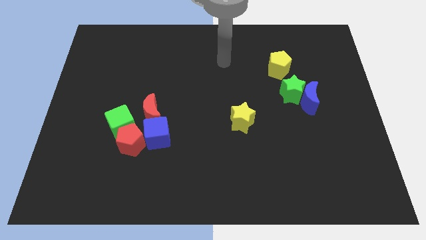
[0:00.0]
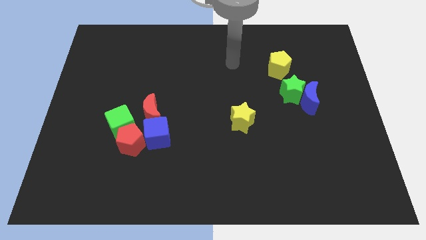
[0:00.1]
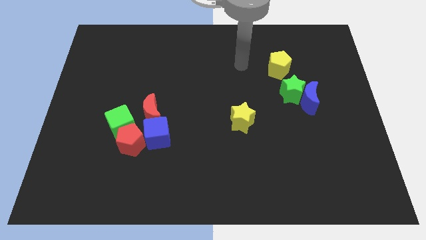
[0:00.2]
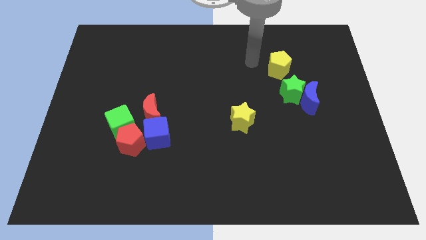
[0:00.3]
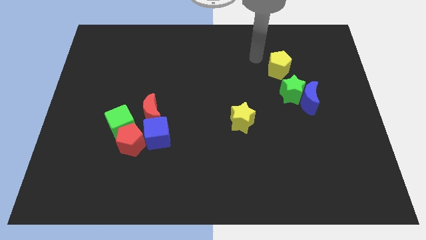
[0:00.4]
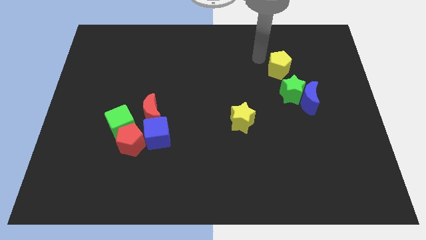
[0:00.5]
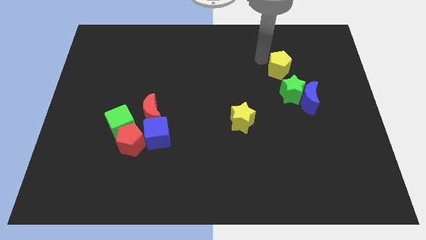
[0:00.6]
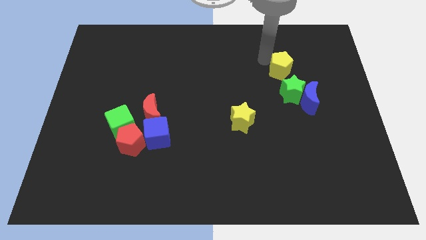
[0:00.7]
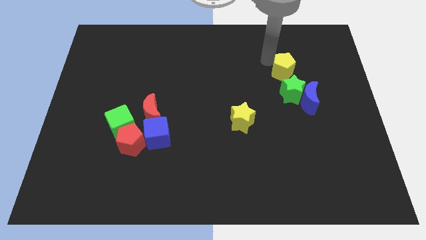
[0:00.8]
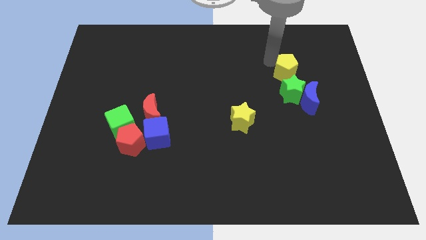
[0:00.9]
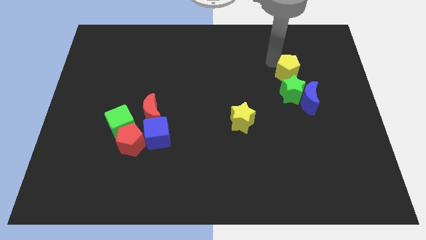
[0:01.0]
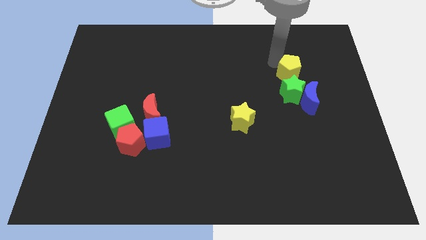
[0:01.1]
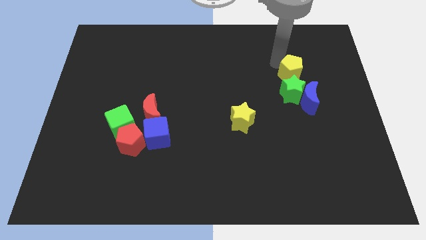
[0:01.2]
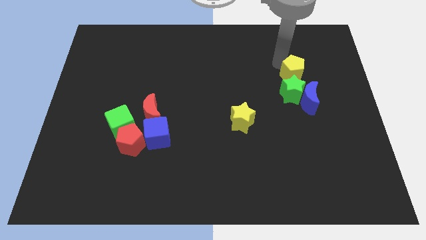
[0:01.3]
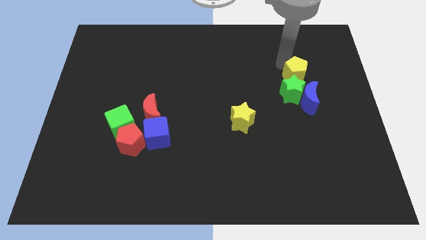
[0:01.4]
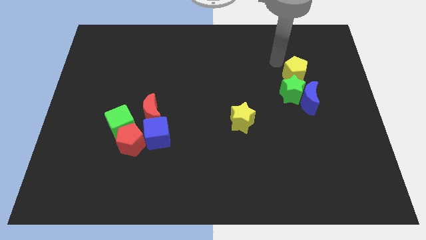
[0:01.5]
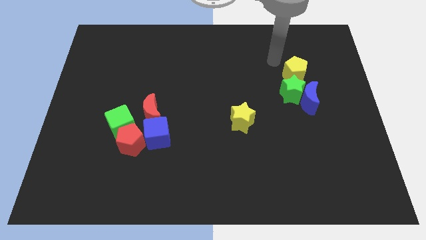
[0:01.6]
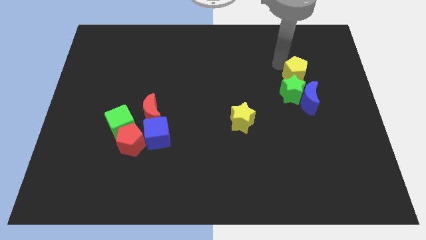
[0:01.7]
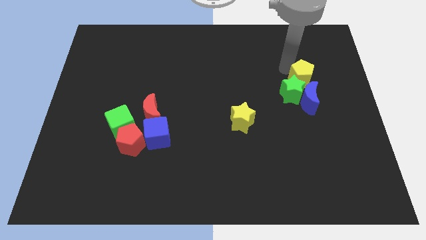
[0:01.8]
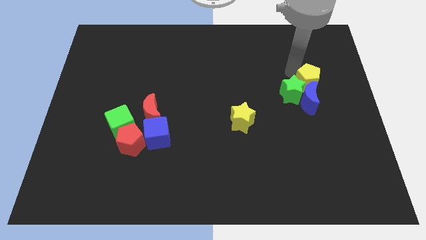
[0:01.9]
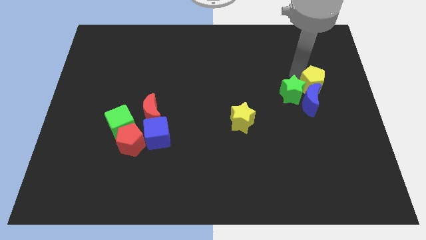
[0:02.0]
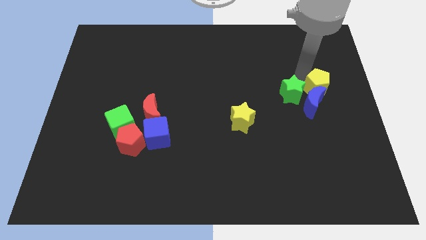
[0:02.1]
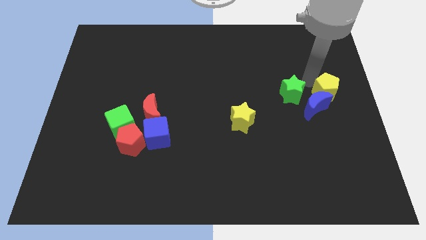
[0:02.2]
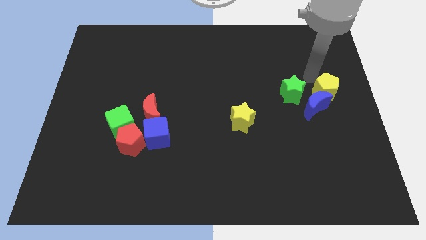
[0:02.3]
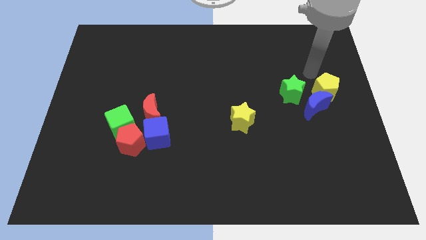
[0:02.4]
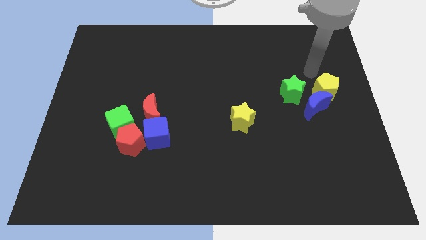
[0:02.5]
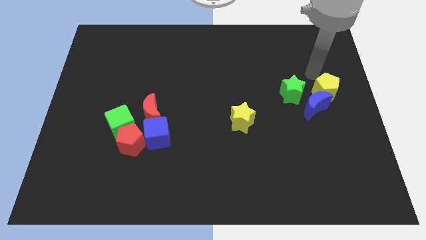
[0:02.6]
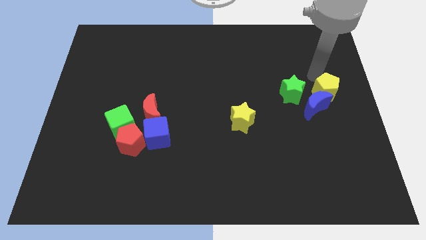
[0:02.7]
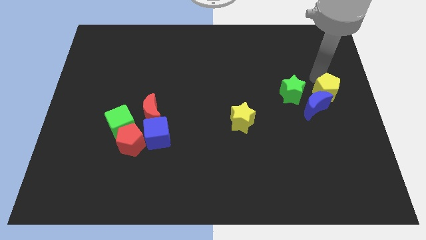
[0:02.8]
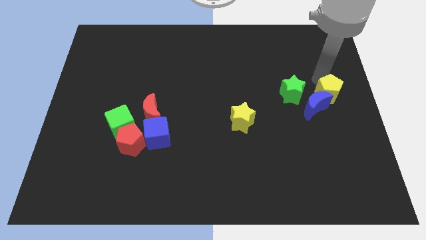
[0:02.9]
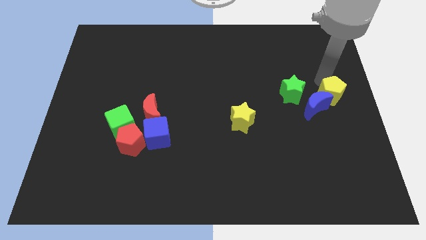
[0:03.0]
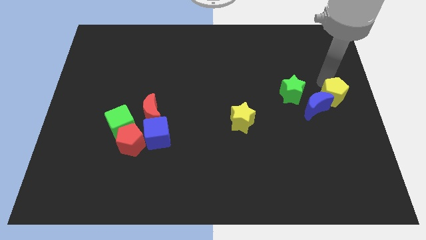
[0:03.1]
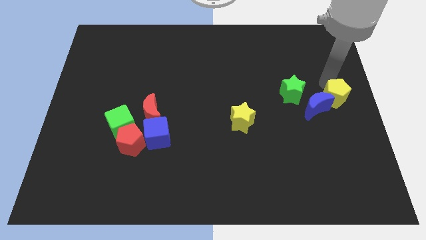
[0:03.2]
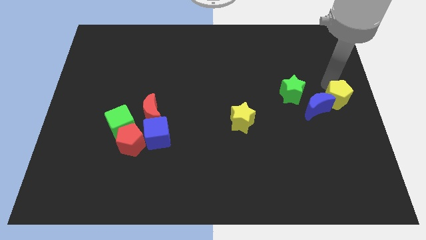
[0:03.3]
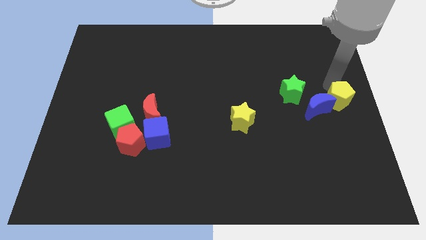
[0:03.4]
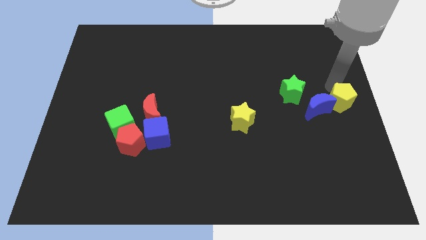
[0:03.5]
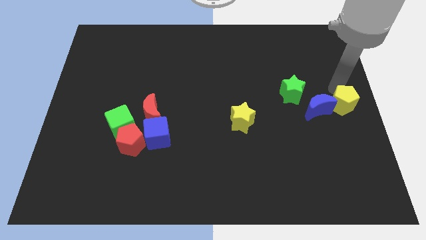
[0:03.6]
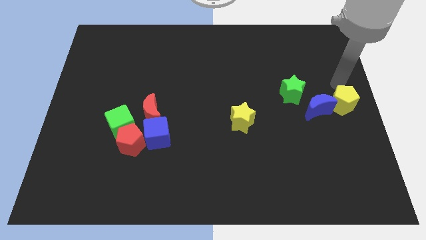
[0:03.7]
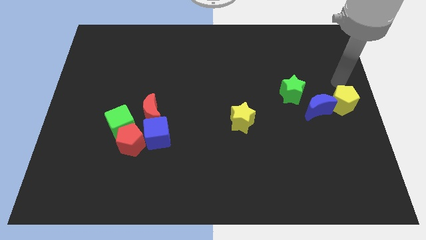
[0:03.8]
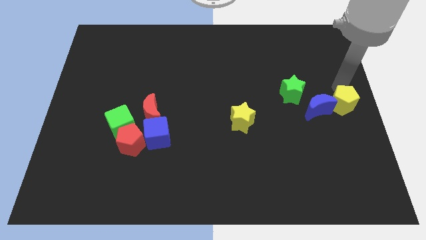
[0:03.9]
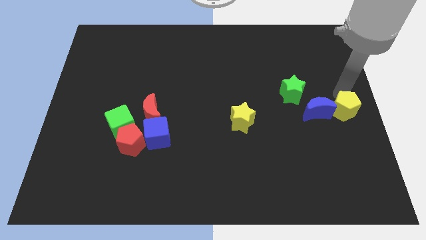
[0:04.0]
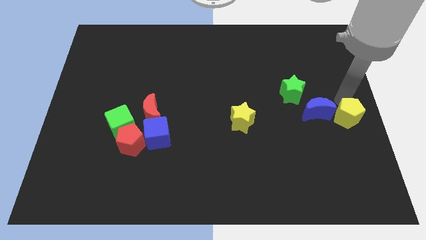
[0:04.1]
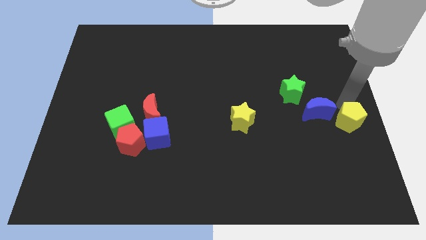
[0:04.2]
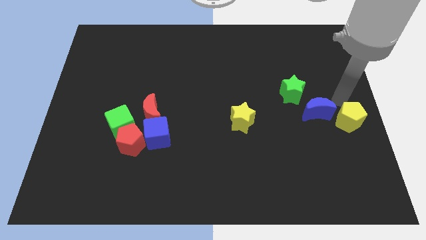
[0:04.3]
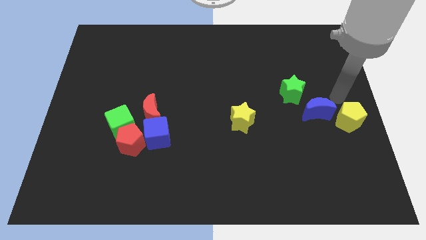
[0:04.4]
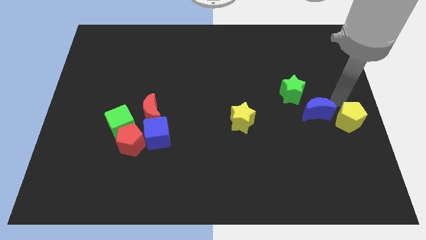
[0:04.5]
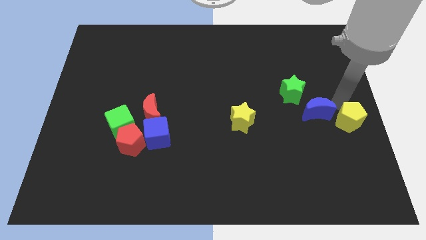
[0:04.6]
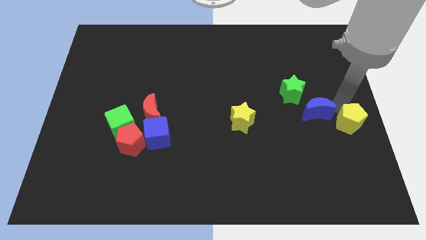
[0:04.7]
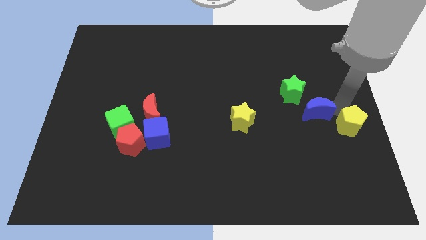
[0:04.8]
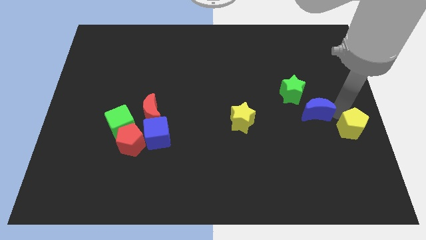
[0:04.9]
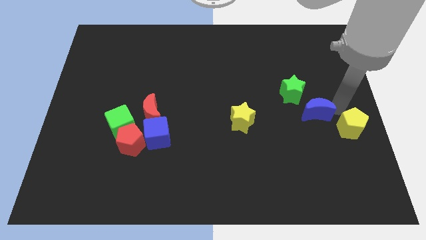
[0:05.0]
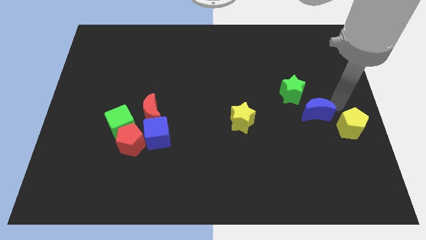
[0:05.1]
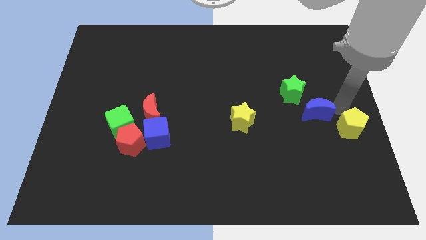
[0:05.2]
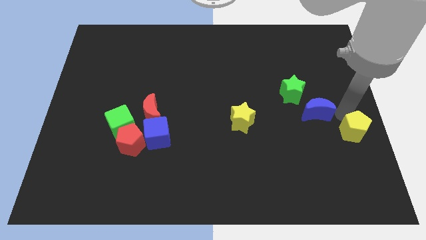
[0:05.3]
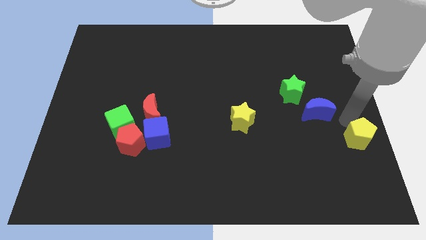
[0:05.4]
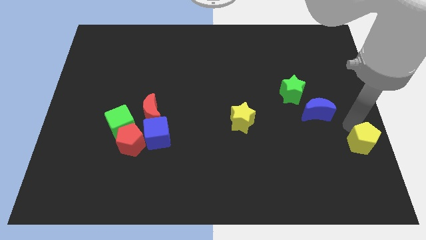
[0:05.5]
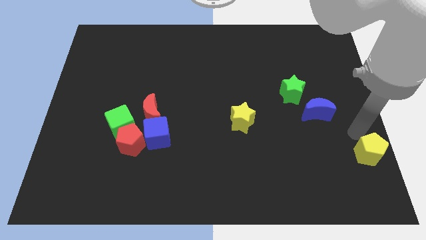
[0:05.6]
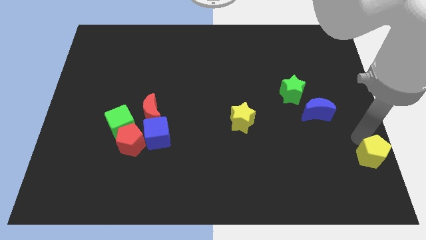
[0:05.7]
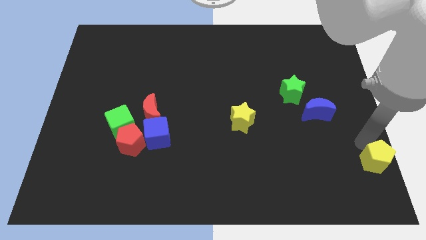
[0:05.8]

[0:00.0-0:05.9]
slide the yellow pentagon to the lower right corner
